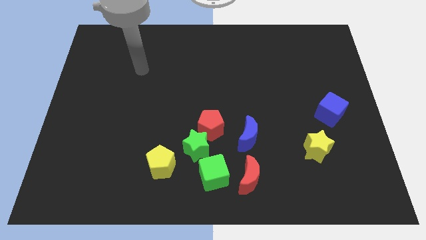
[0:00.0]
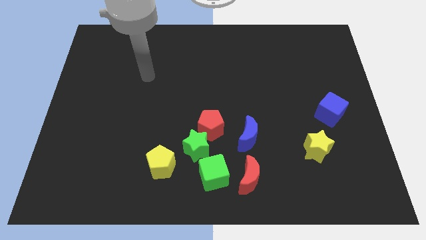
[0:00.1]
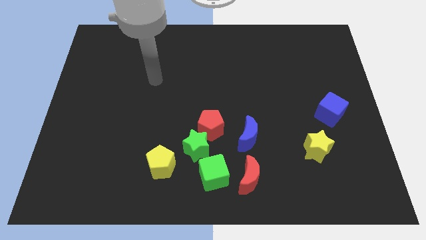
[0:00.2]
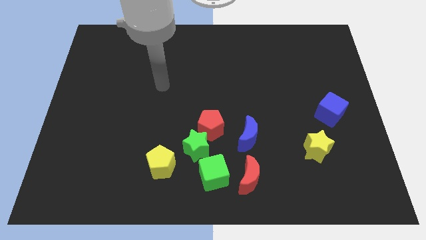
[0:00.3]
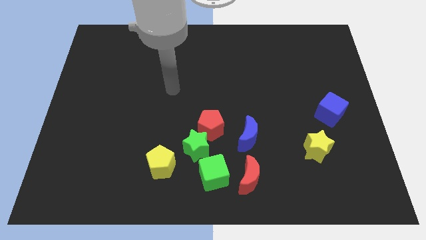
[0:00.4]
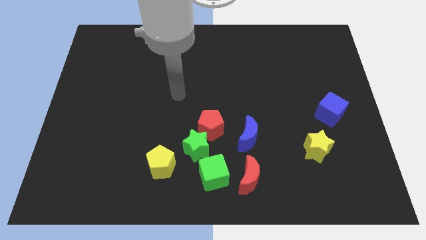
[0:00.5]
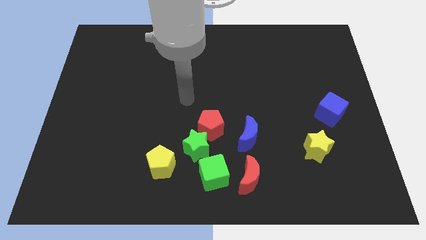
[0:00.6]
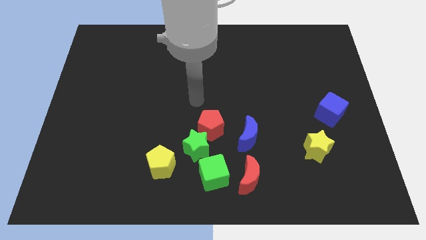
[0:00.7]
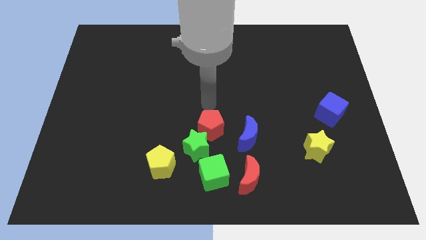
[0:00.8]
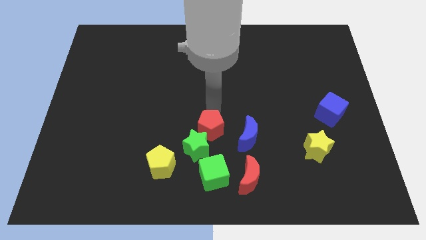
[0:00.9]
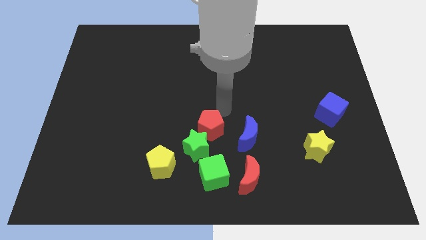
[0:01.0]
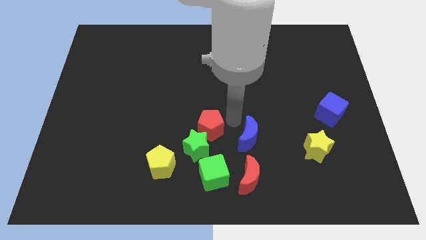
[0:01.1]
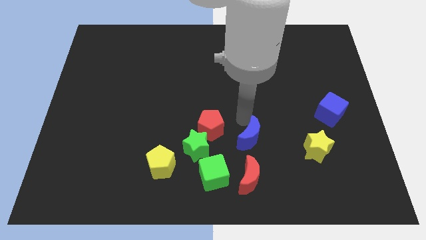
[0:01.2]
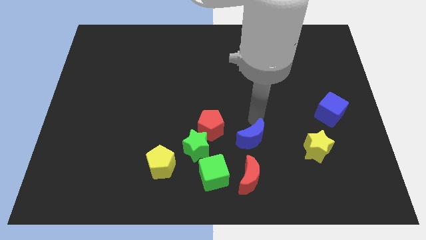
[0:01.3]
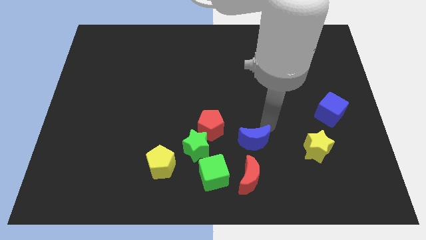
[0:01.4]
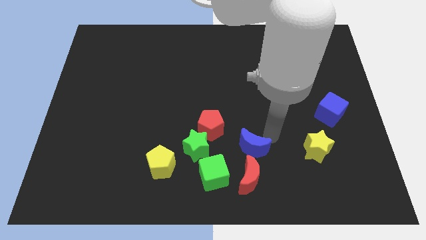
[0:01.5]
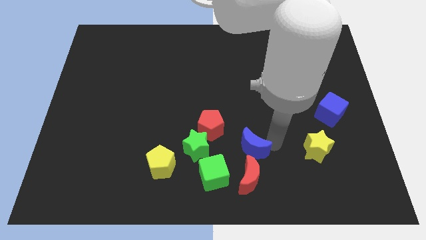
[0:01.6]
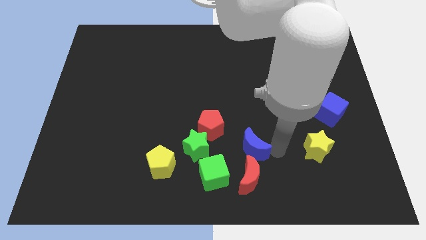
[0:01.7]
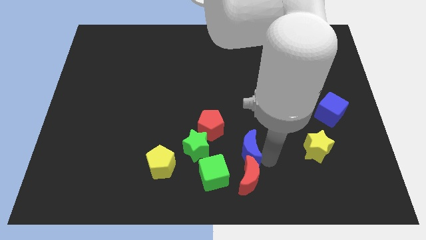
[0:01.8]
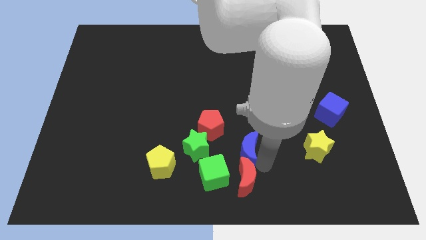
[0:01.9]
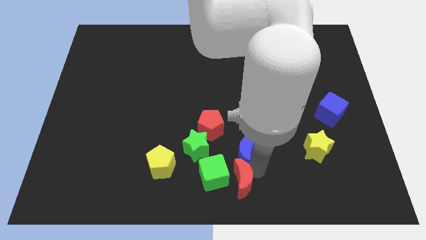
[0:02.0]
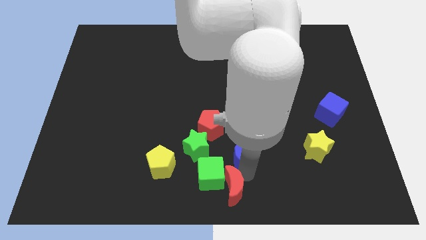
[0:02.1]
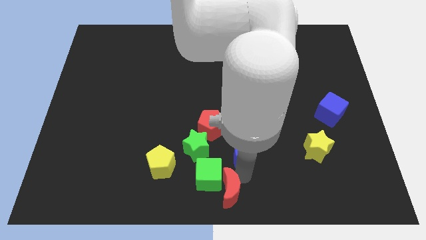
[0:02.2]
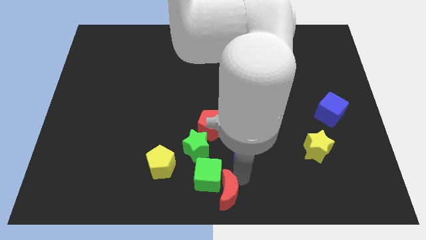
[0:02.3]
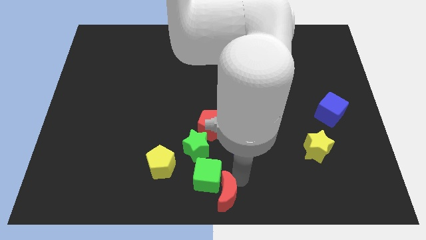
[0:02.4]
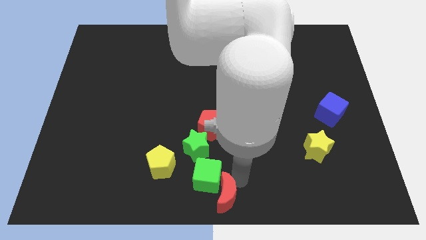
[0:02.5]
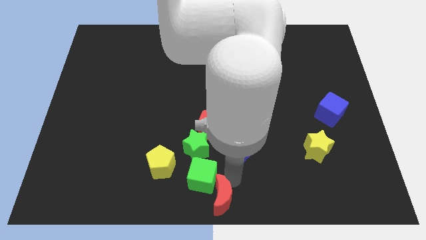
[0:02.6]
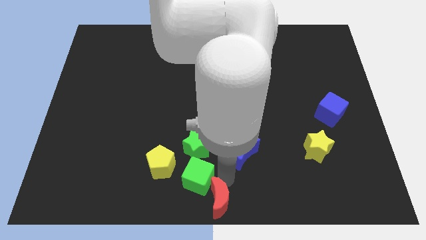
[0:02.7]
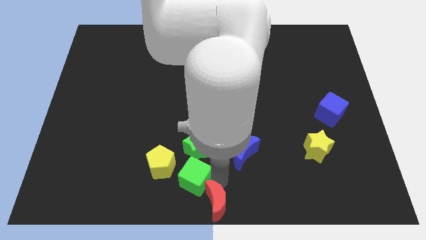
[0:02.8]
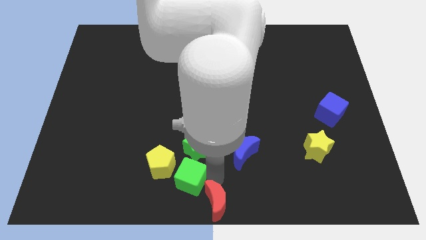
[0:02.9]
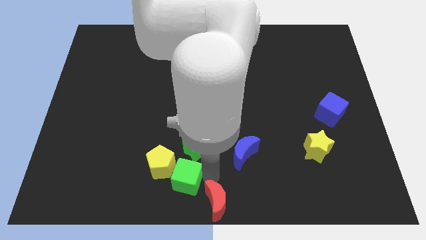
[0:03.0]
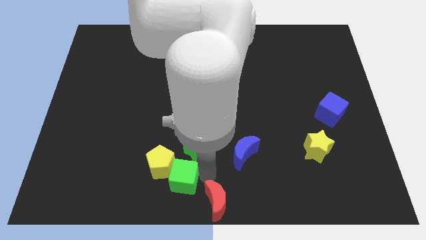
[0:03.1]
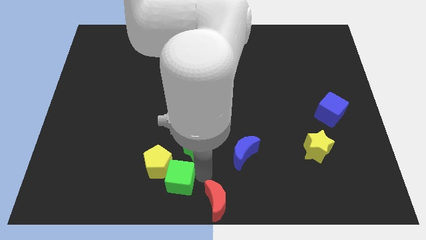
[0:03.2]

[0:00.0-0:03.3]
push the green cube slightly left

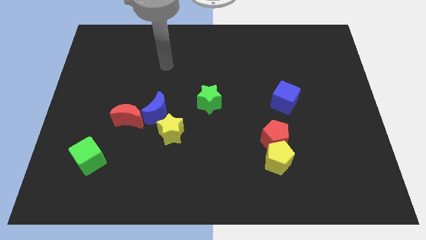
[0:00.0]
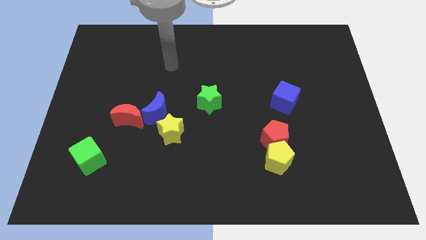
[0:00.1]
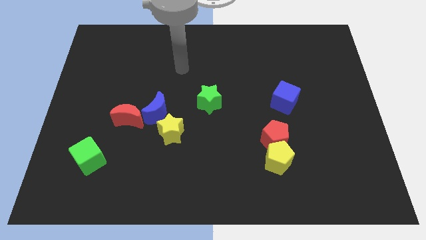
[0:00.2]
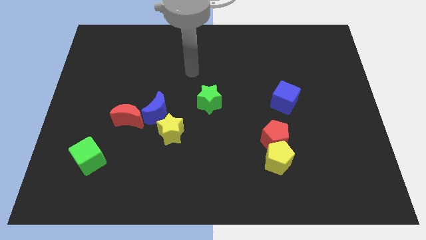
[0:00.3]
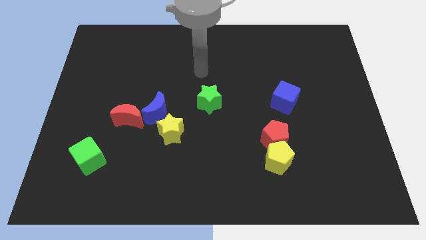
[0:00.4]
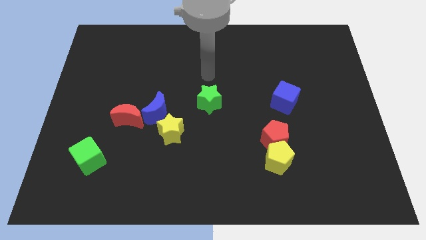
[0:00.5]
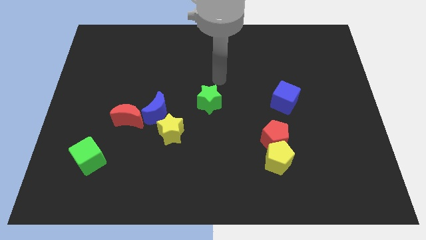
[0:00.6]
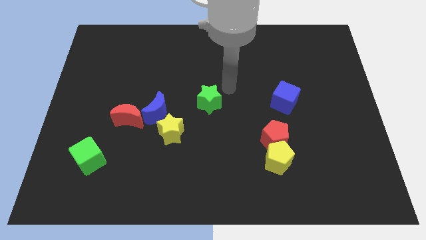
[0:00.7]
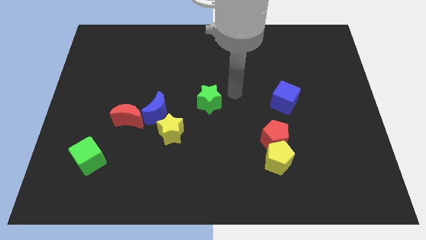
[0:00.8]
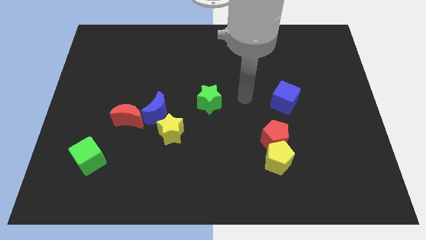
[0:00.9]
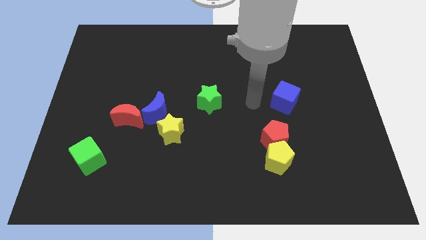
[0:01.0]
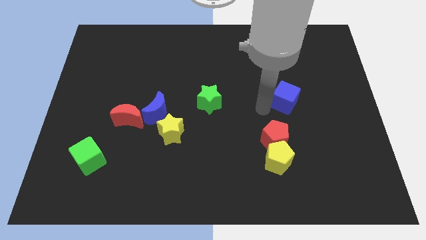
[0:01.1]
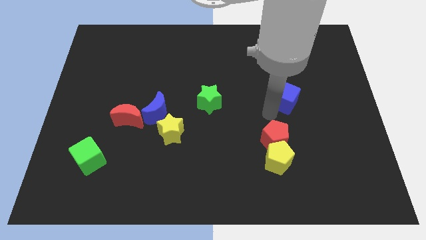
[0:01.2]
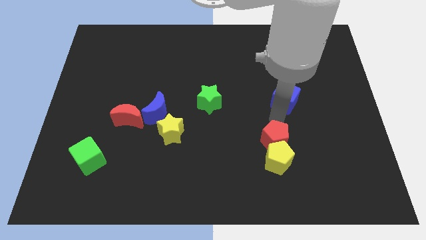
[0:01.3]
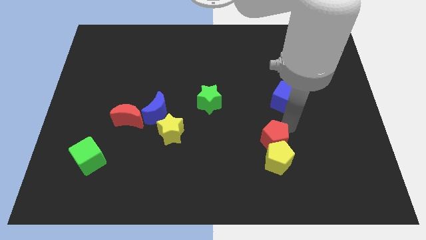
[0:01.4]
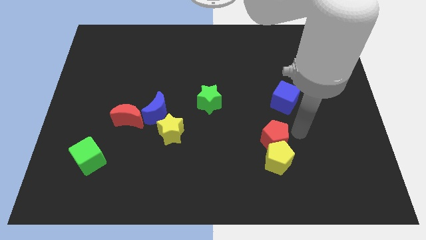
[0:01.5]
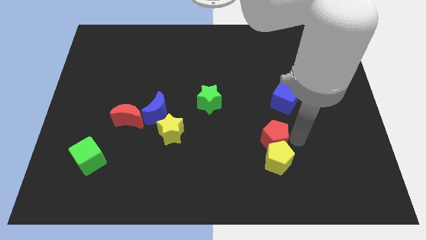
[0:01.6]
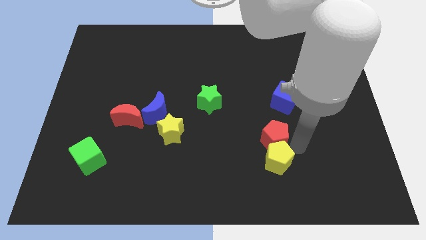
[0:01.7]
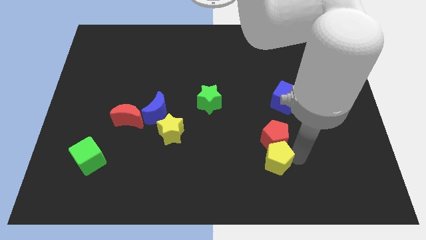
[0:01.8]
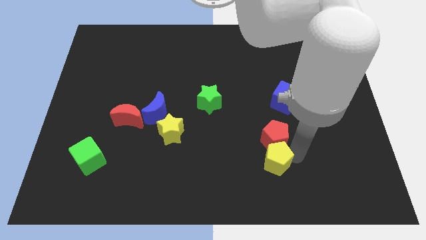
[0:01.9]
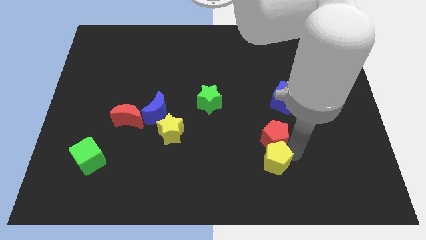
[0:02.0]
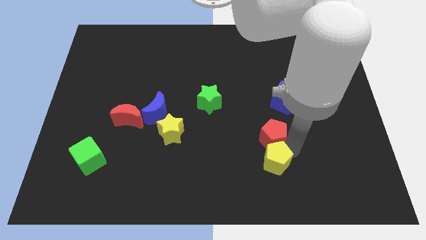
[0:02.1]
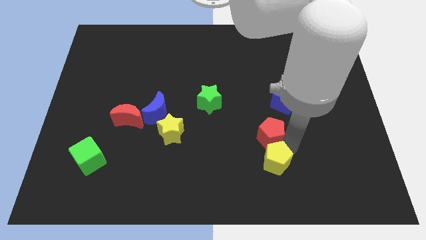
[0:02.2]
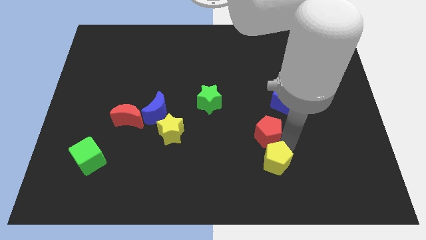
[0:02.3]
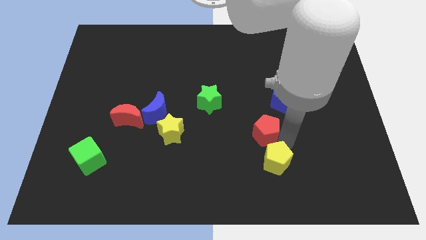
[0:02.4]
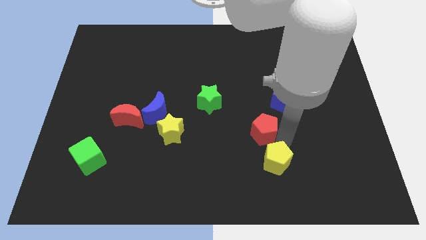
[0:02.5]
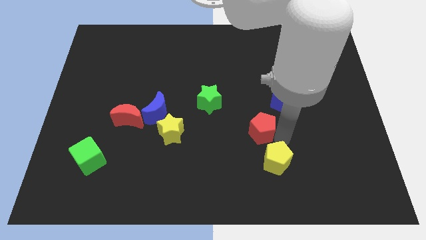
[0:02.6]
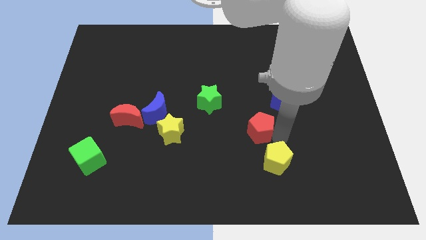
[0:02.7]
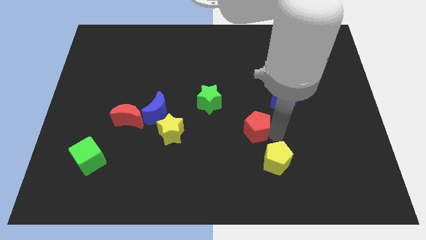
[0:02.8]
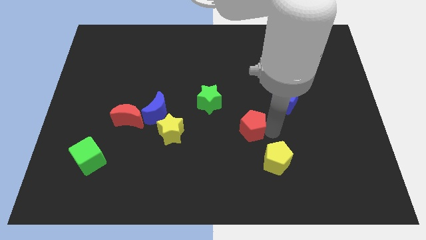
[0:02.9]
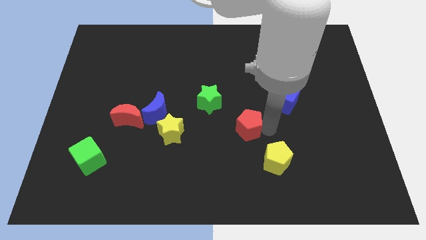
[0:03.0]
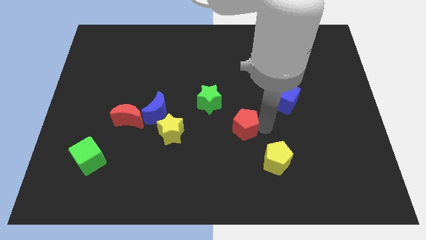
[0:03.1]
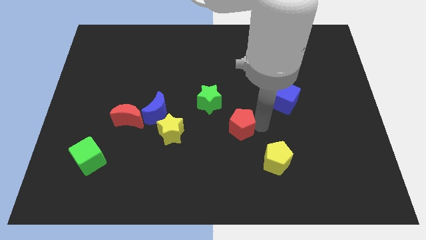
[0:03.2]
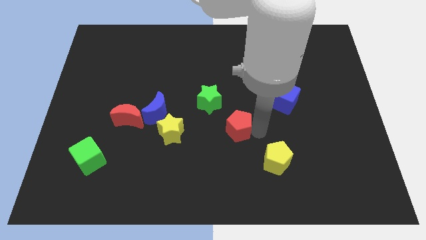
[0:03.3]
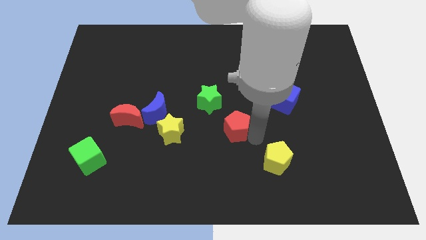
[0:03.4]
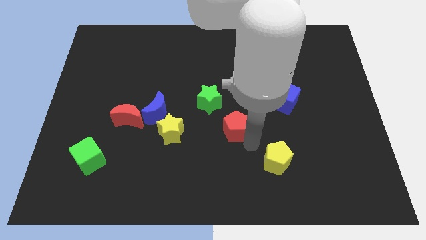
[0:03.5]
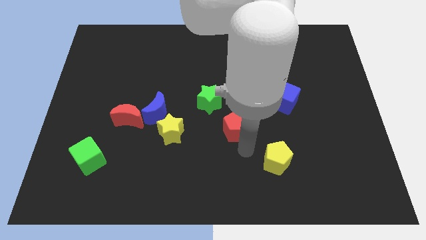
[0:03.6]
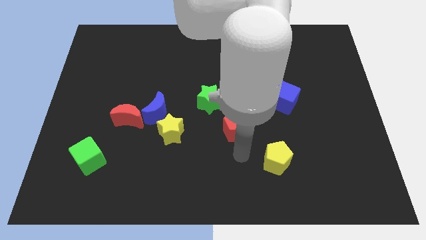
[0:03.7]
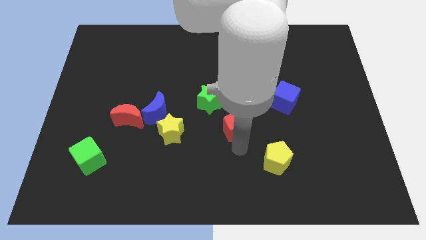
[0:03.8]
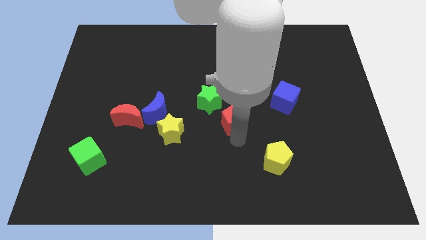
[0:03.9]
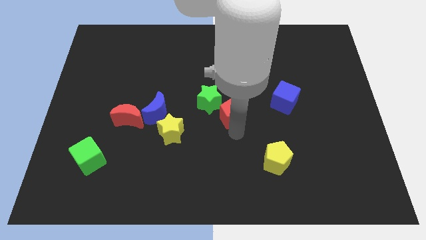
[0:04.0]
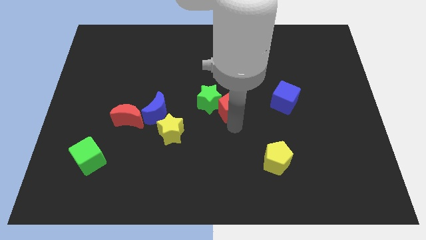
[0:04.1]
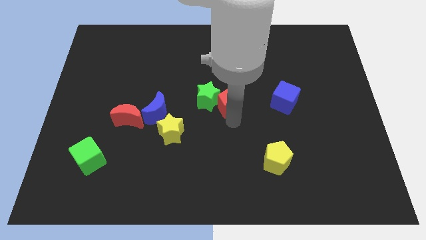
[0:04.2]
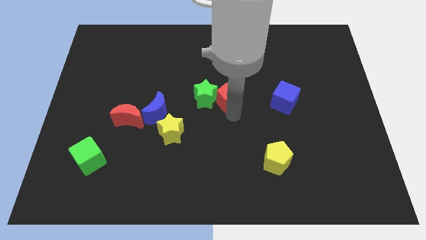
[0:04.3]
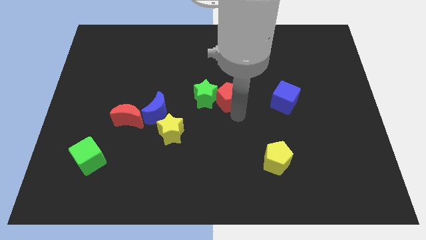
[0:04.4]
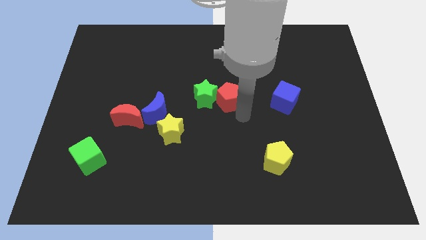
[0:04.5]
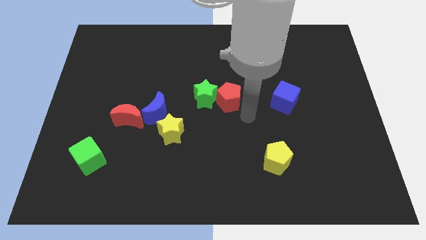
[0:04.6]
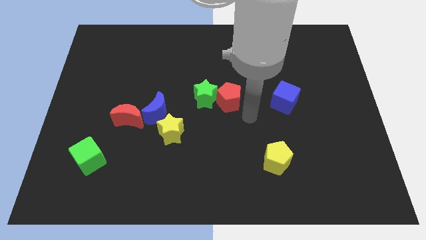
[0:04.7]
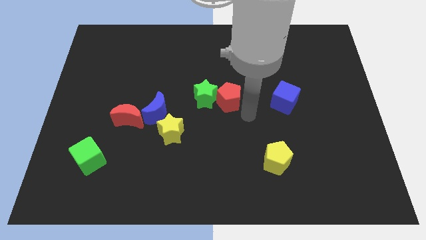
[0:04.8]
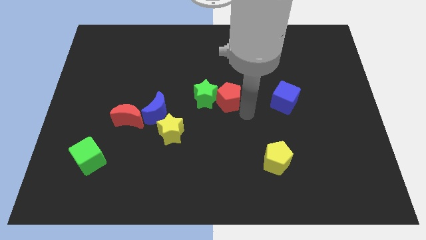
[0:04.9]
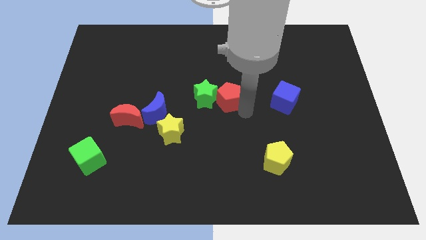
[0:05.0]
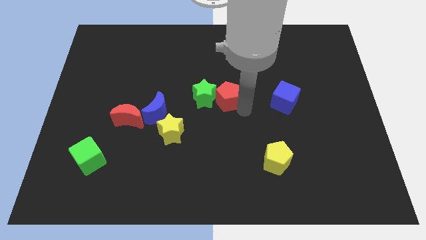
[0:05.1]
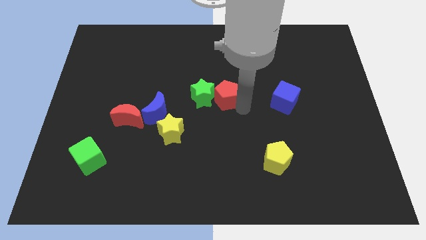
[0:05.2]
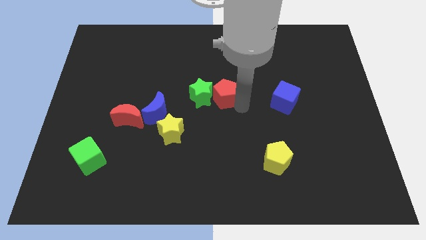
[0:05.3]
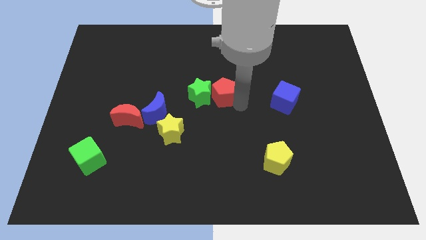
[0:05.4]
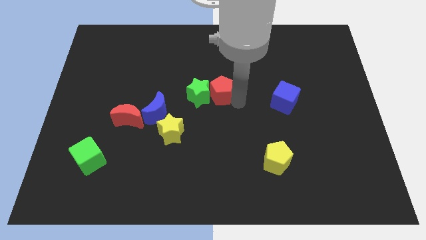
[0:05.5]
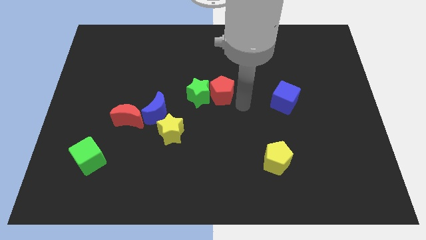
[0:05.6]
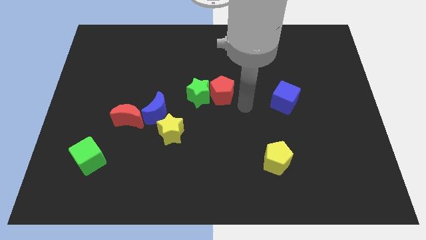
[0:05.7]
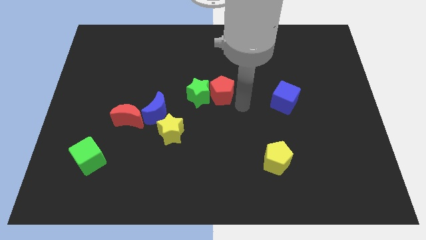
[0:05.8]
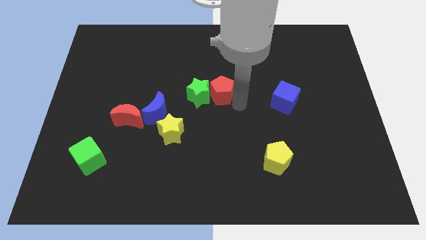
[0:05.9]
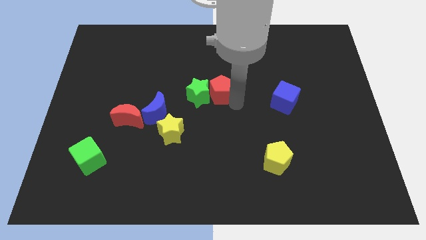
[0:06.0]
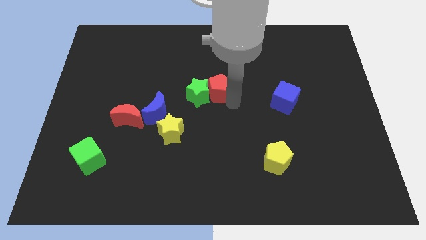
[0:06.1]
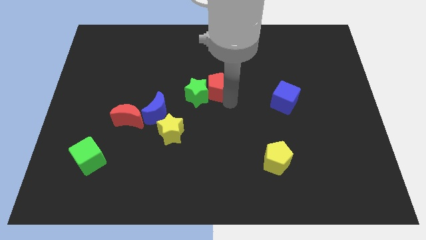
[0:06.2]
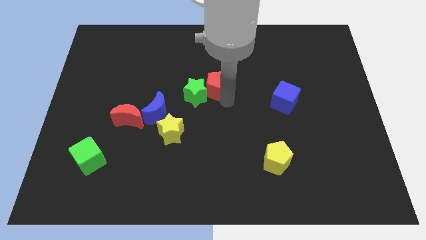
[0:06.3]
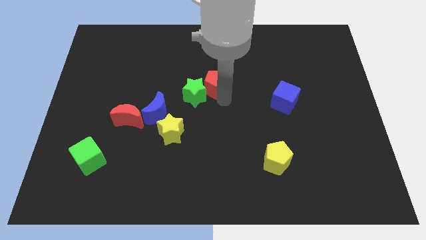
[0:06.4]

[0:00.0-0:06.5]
move the red pentagon diagonally up and left
